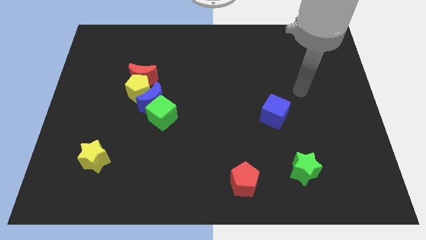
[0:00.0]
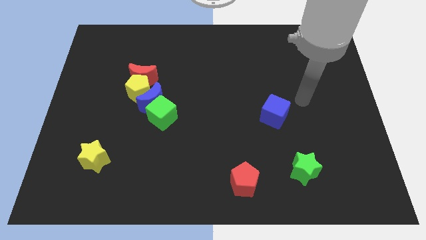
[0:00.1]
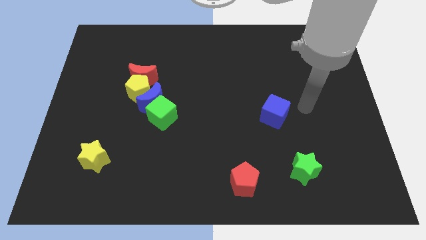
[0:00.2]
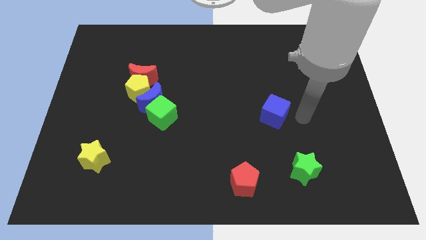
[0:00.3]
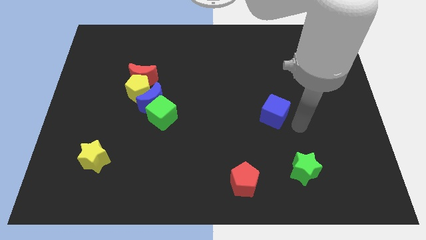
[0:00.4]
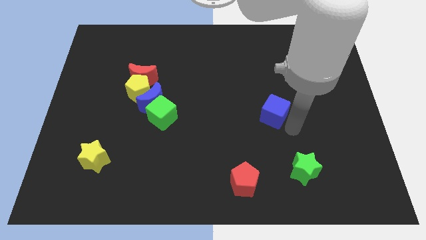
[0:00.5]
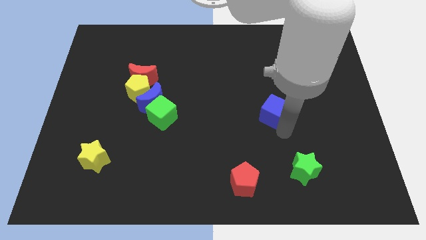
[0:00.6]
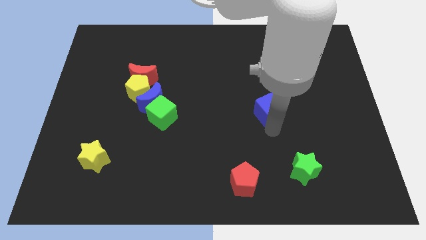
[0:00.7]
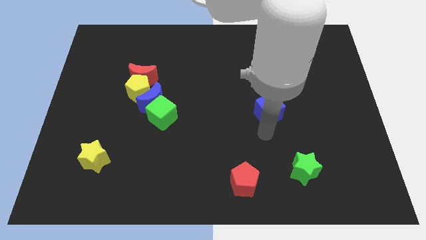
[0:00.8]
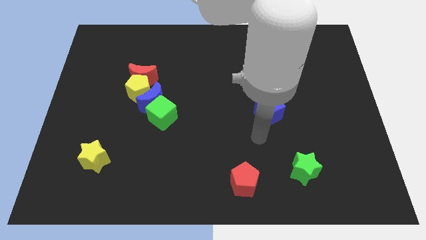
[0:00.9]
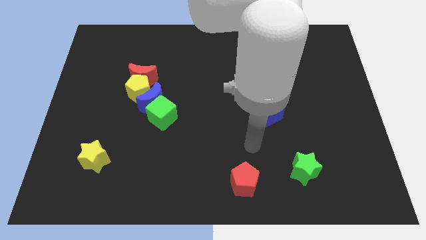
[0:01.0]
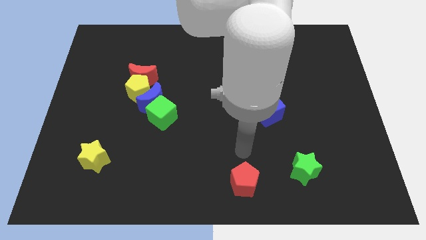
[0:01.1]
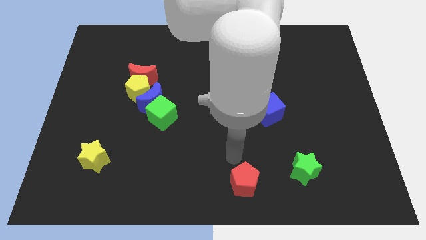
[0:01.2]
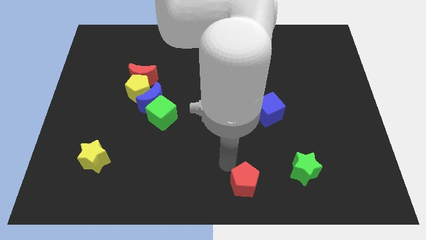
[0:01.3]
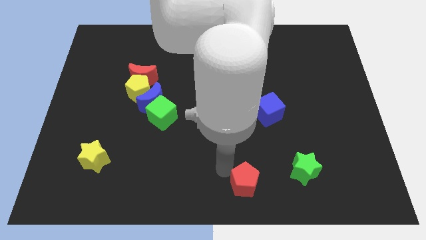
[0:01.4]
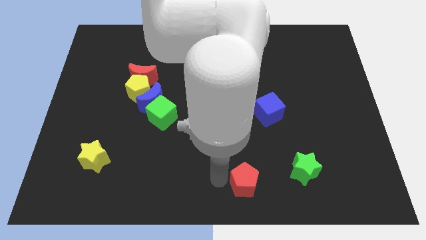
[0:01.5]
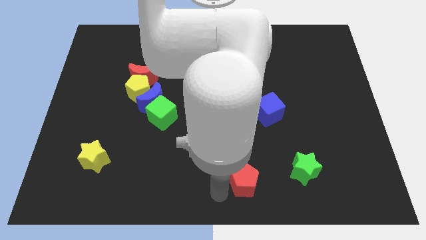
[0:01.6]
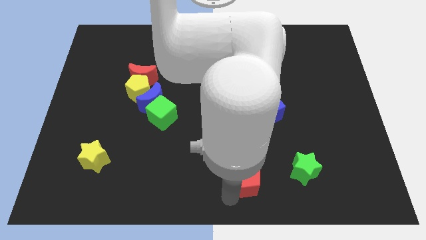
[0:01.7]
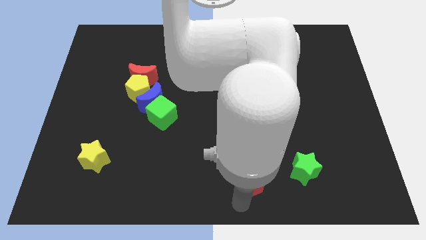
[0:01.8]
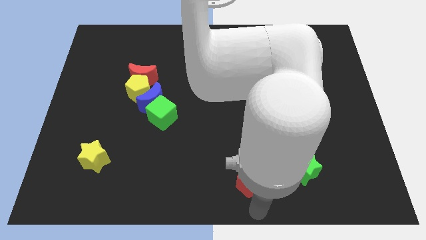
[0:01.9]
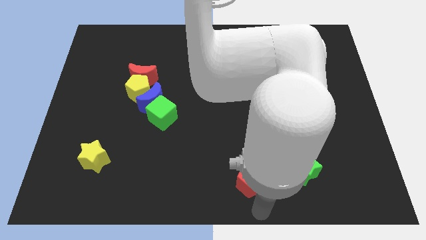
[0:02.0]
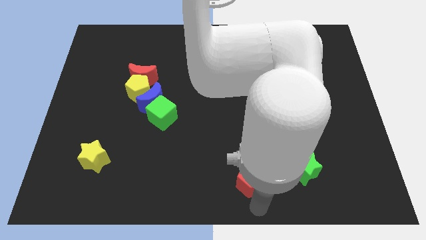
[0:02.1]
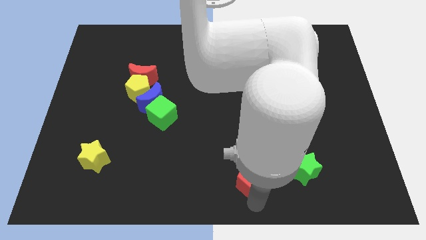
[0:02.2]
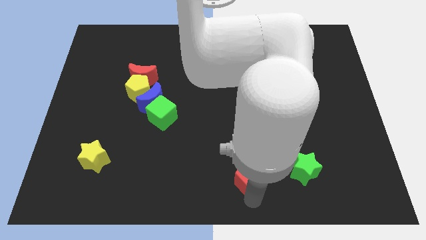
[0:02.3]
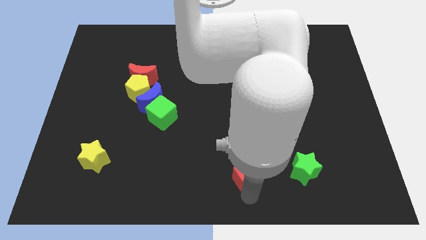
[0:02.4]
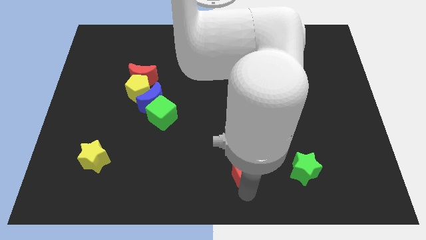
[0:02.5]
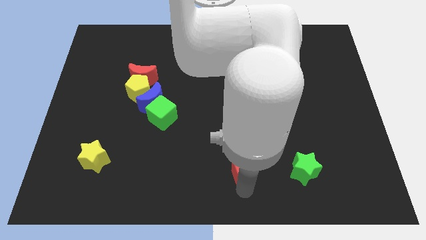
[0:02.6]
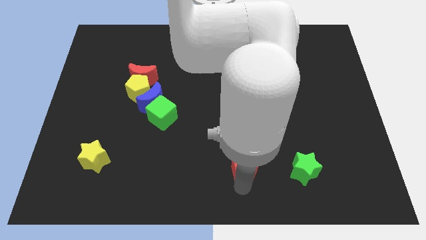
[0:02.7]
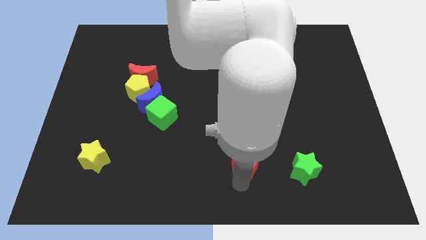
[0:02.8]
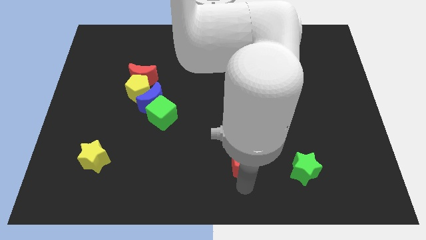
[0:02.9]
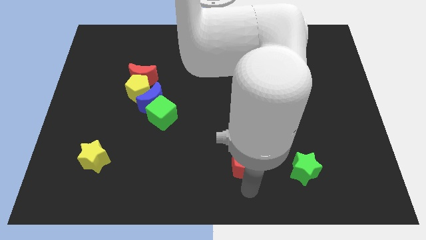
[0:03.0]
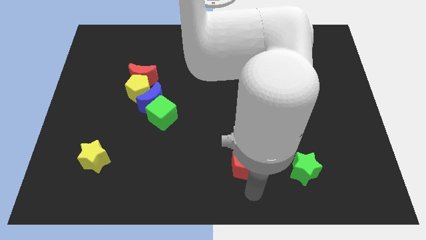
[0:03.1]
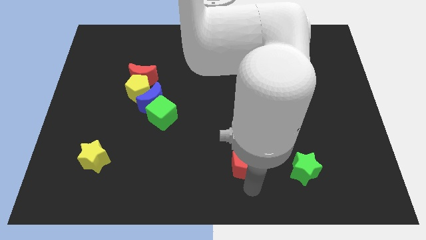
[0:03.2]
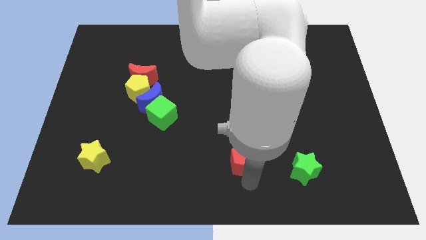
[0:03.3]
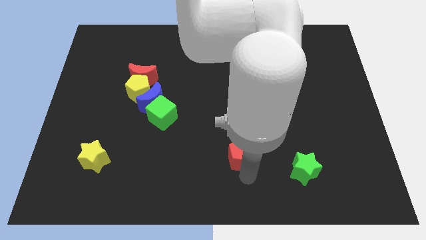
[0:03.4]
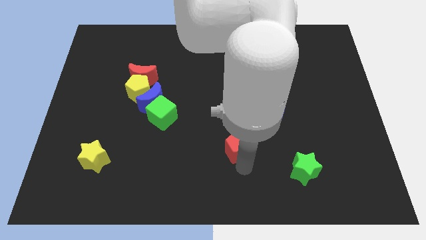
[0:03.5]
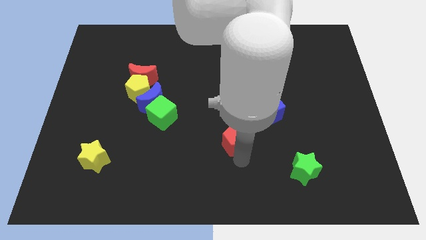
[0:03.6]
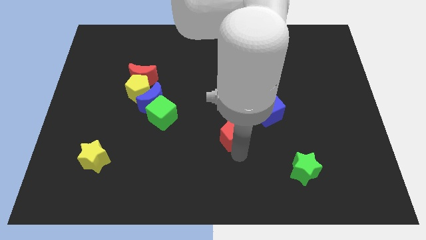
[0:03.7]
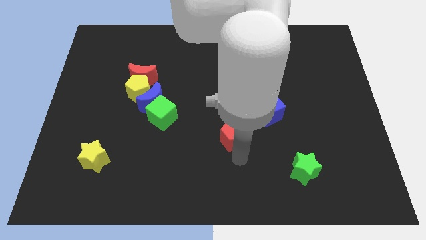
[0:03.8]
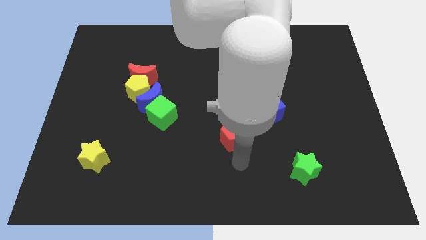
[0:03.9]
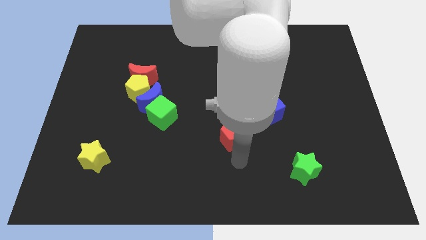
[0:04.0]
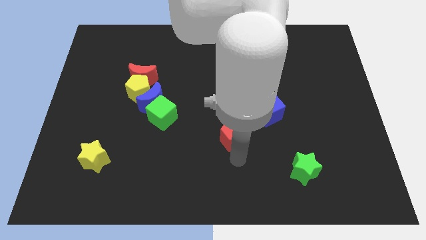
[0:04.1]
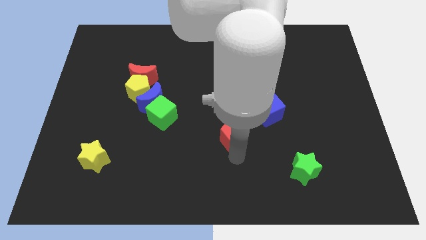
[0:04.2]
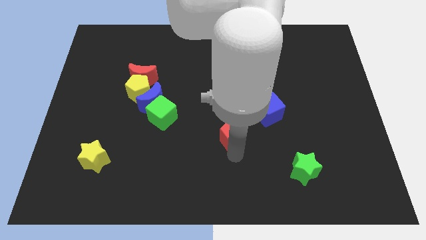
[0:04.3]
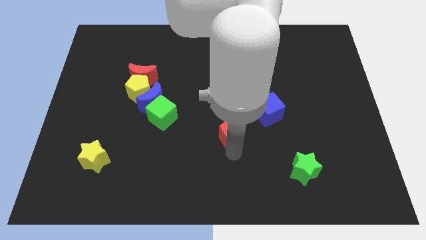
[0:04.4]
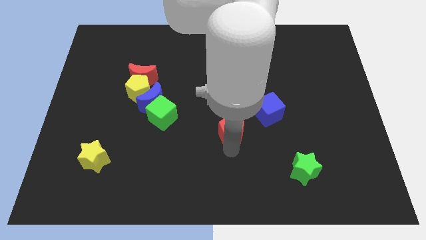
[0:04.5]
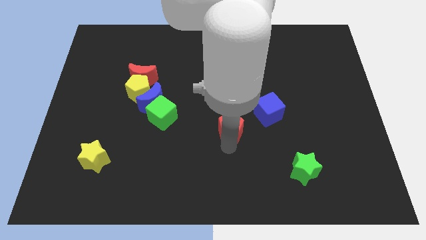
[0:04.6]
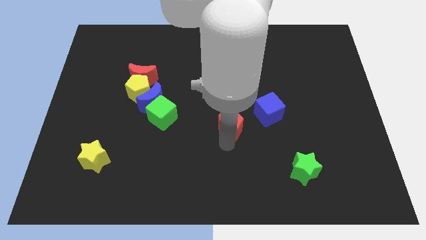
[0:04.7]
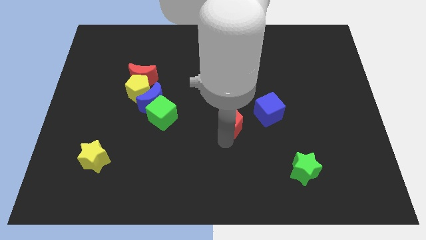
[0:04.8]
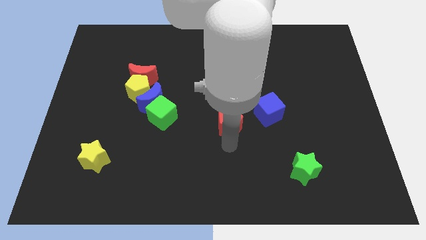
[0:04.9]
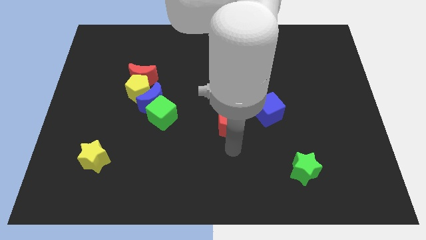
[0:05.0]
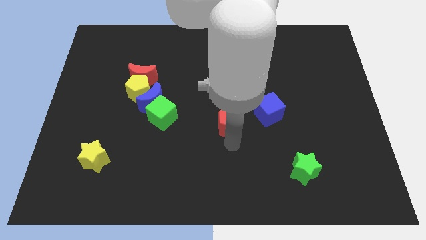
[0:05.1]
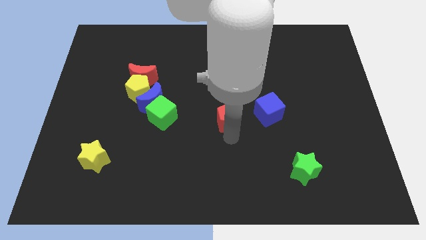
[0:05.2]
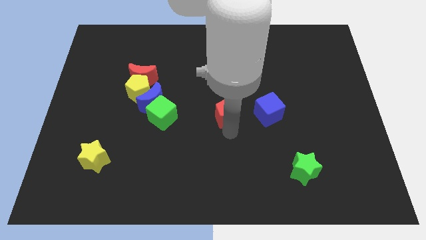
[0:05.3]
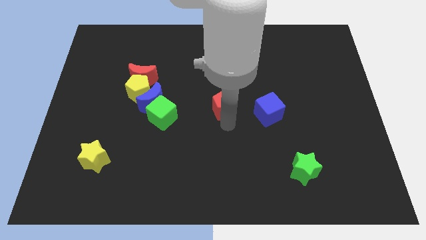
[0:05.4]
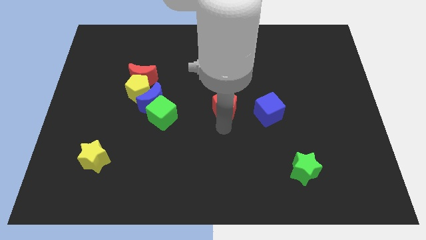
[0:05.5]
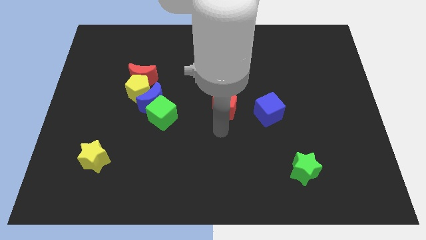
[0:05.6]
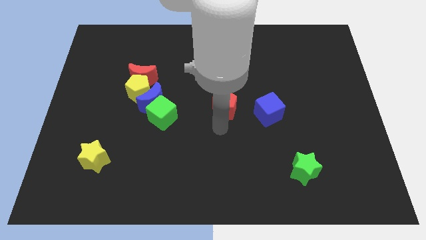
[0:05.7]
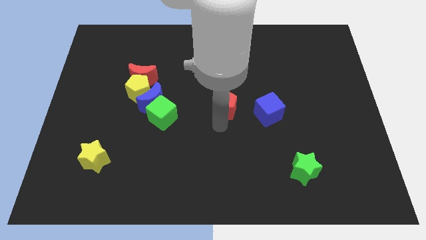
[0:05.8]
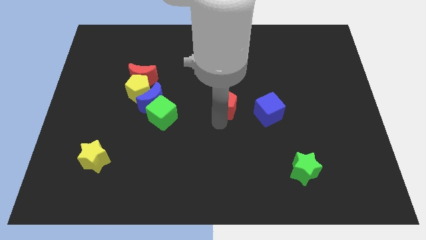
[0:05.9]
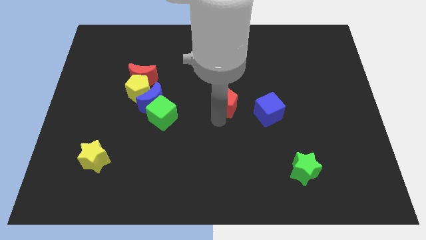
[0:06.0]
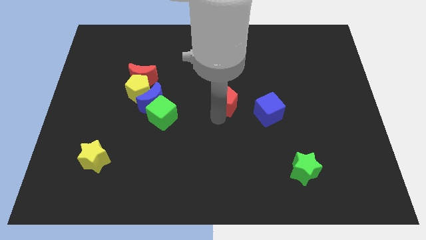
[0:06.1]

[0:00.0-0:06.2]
move the red pentagon upwards

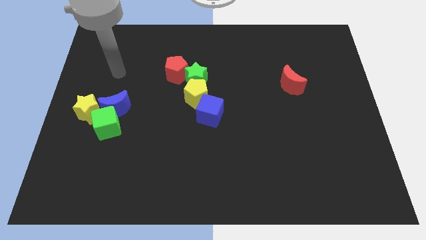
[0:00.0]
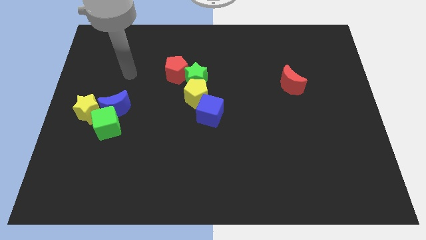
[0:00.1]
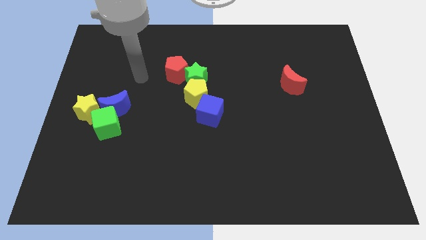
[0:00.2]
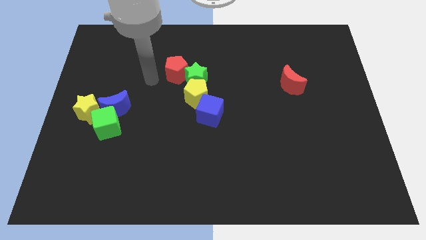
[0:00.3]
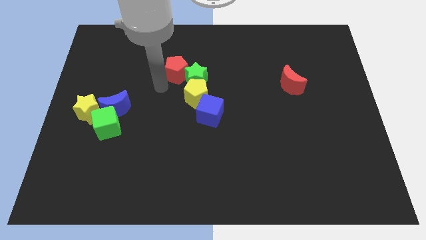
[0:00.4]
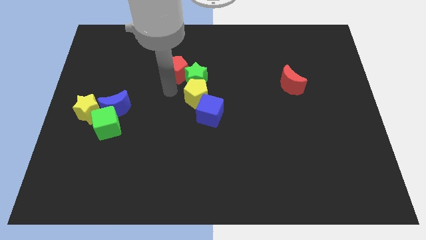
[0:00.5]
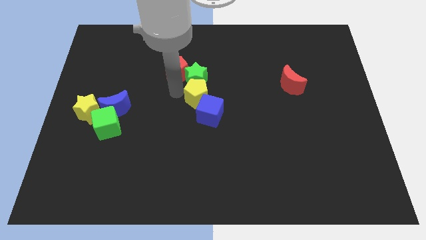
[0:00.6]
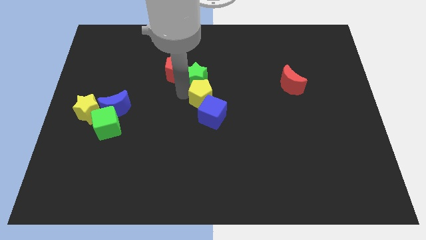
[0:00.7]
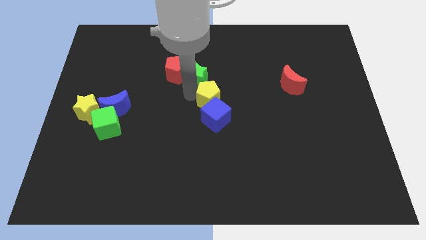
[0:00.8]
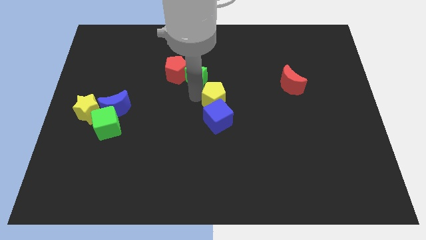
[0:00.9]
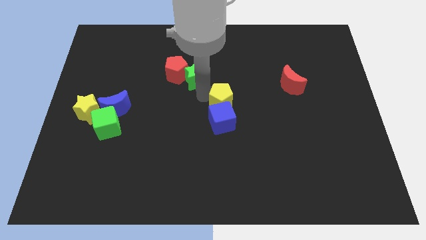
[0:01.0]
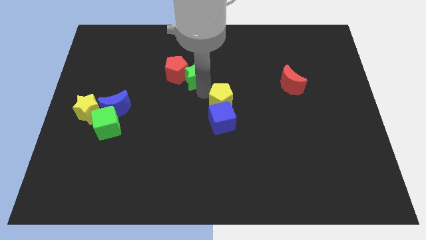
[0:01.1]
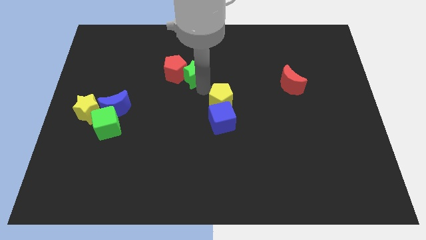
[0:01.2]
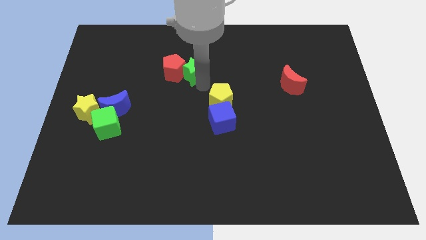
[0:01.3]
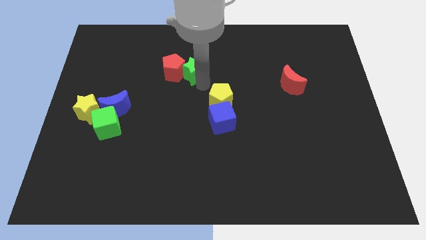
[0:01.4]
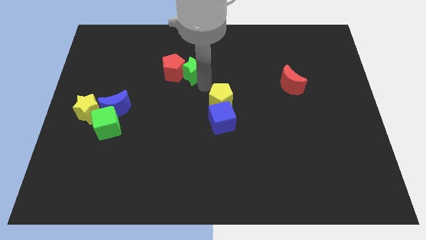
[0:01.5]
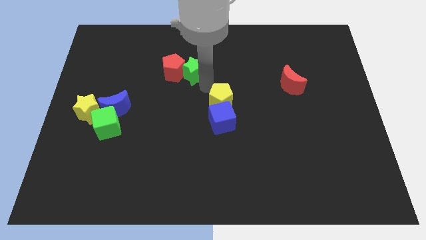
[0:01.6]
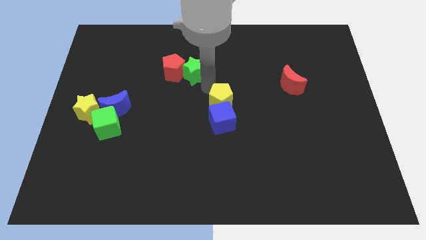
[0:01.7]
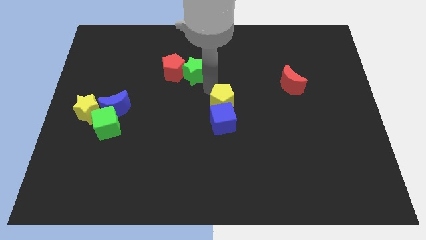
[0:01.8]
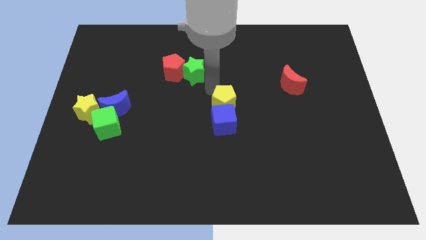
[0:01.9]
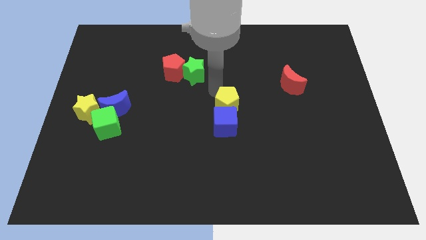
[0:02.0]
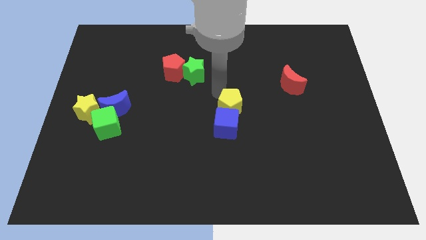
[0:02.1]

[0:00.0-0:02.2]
slide the yellow pentagon somewhat diagonally downwards and to the right
